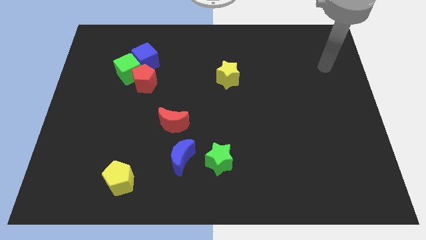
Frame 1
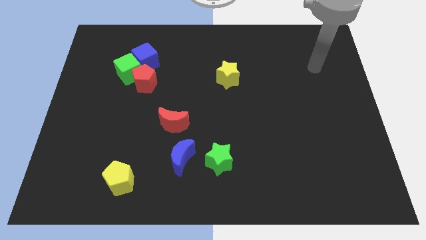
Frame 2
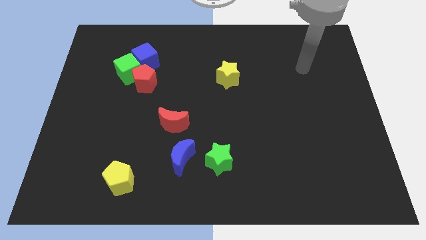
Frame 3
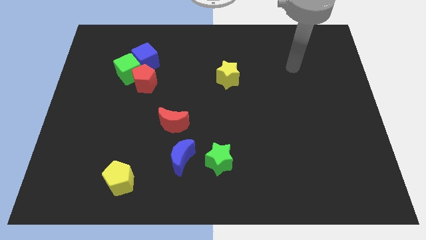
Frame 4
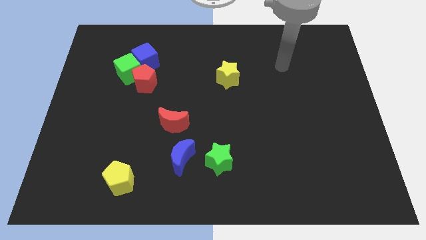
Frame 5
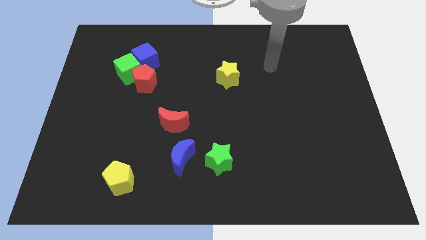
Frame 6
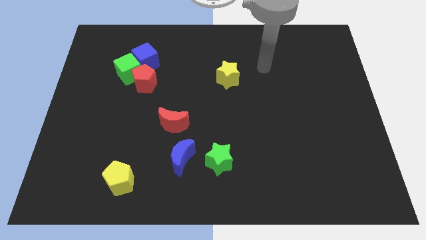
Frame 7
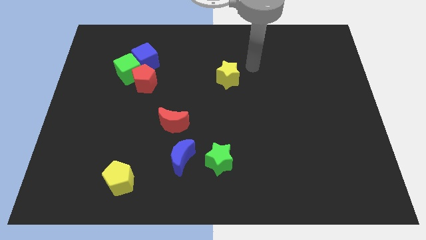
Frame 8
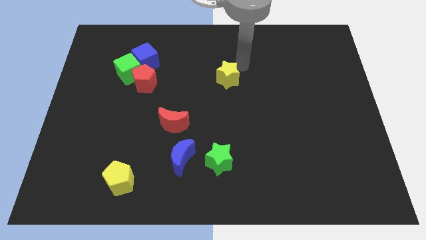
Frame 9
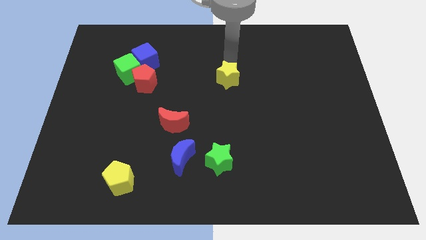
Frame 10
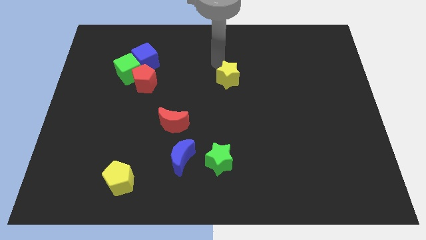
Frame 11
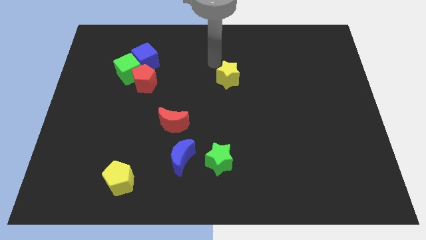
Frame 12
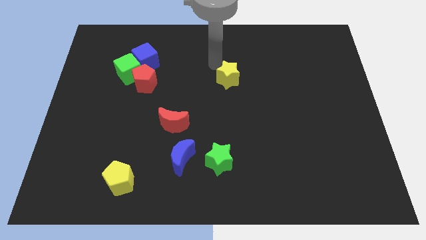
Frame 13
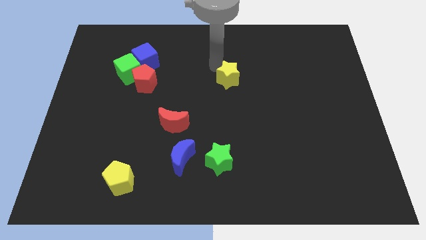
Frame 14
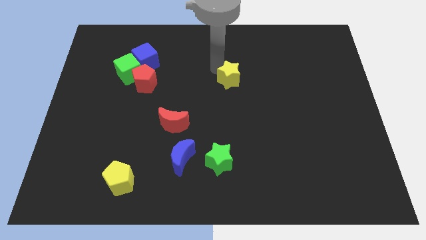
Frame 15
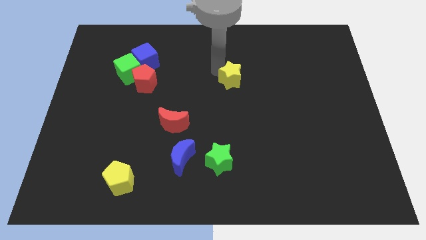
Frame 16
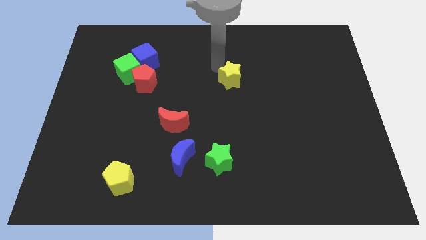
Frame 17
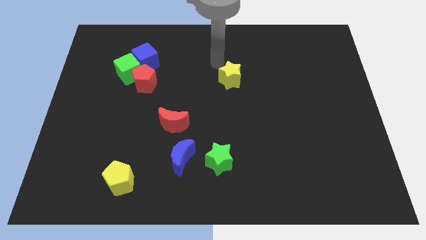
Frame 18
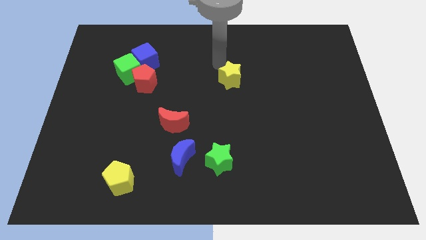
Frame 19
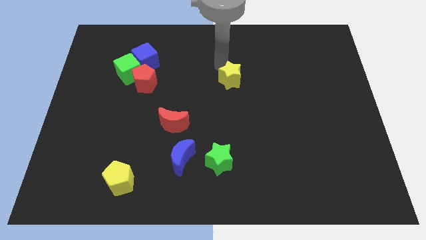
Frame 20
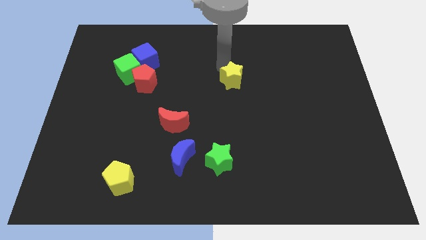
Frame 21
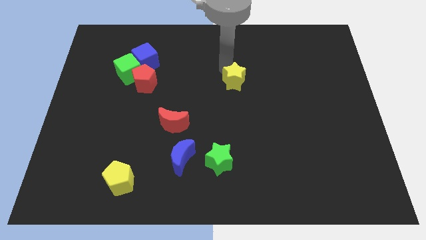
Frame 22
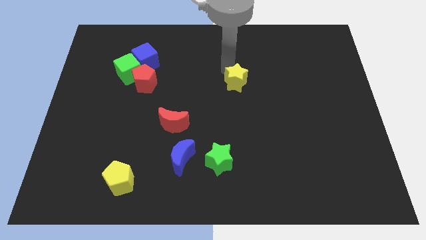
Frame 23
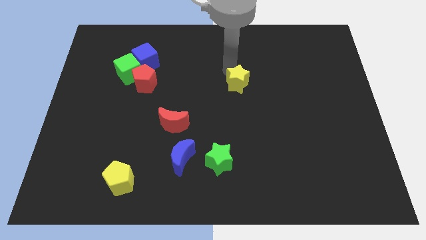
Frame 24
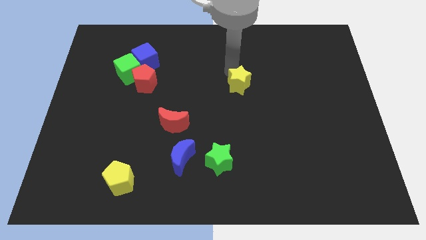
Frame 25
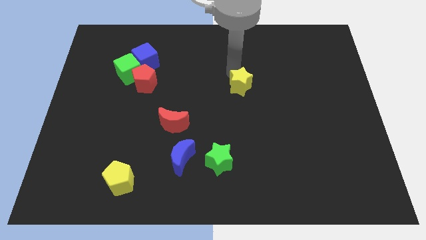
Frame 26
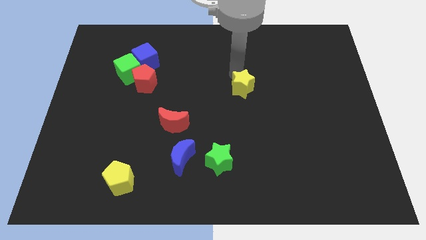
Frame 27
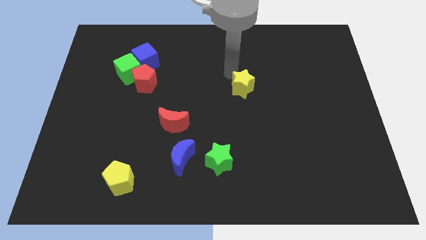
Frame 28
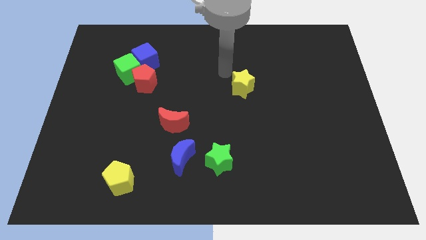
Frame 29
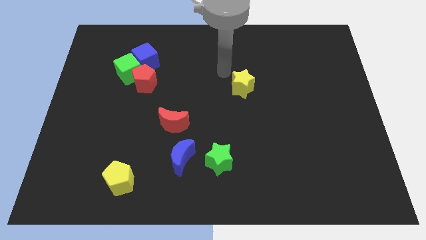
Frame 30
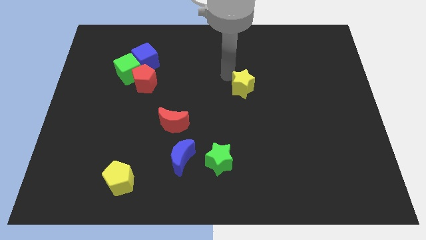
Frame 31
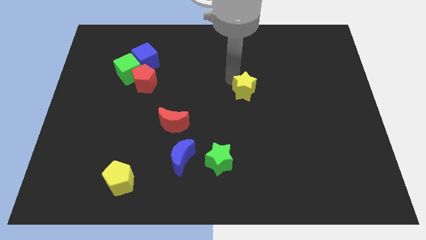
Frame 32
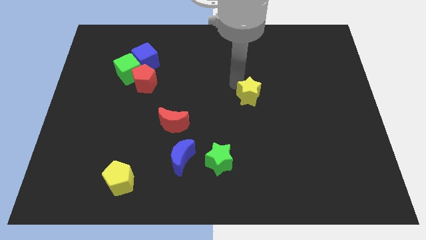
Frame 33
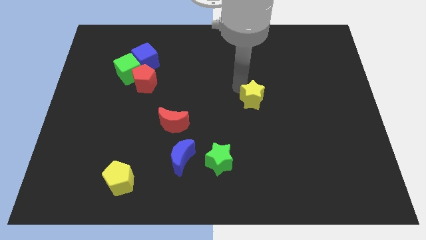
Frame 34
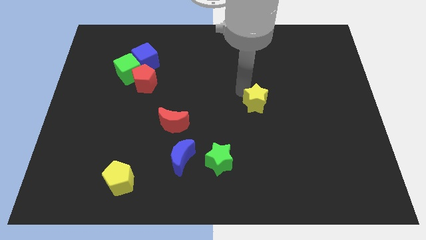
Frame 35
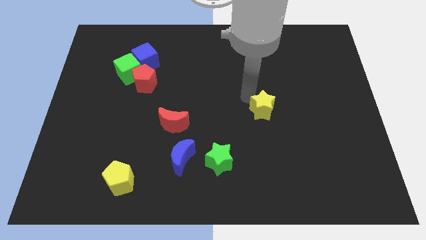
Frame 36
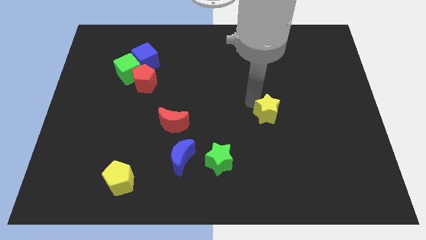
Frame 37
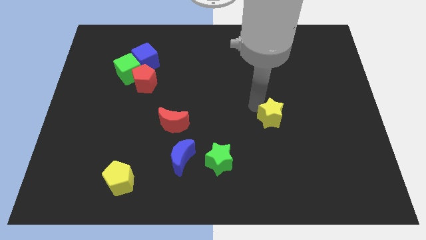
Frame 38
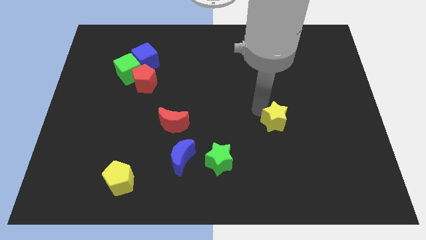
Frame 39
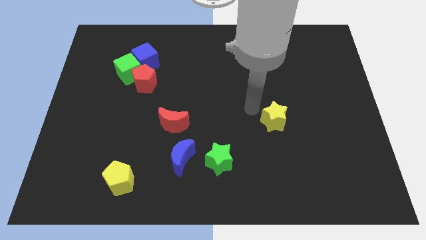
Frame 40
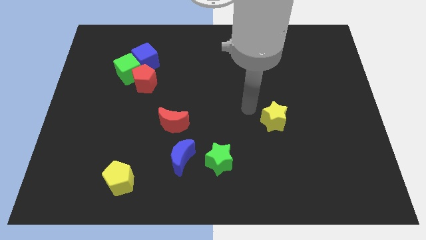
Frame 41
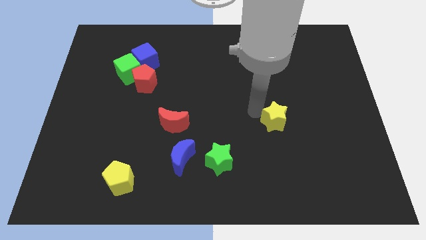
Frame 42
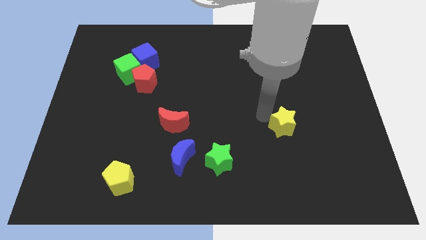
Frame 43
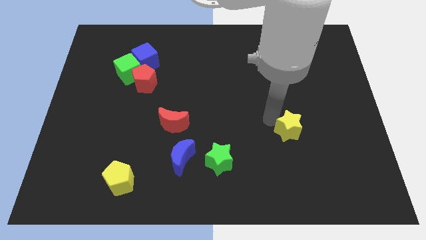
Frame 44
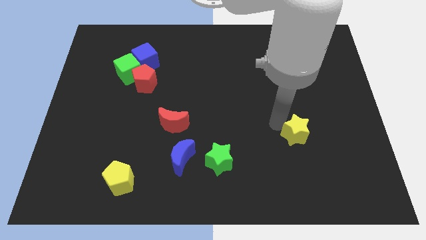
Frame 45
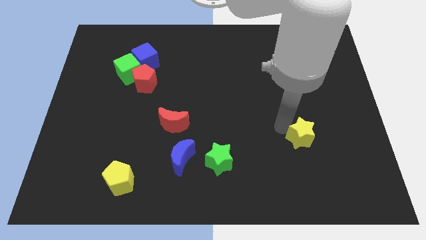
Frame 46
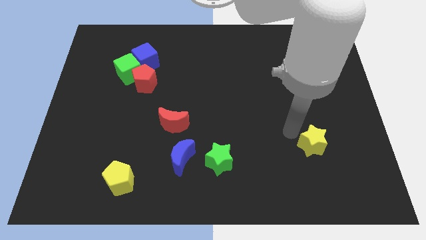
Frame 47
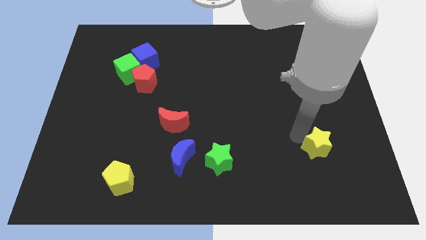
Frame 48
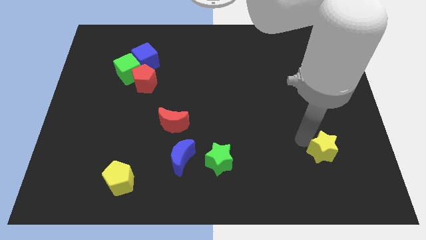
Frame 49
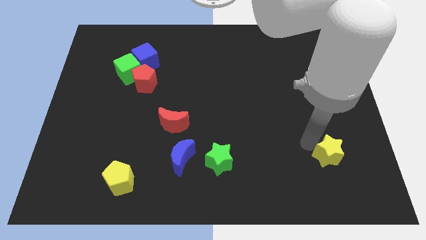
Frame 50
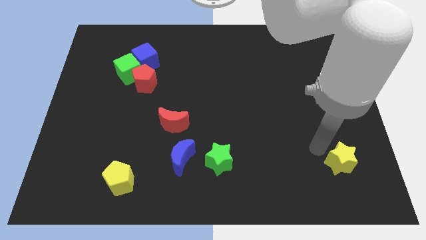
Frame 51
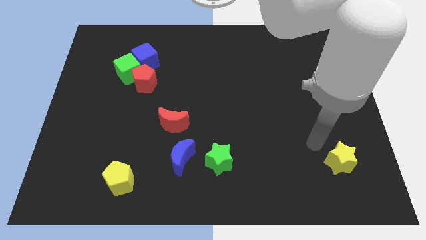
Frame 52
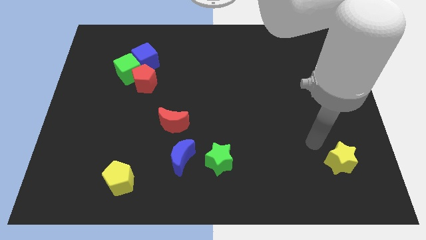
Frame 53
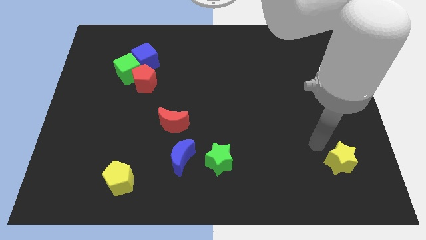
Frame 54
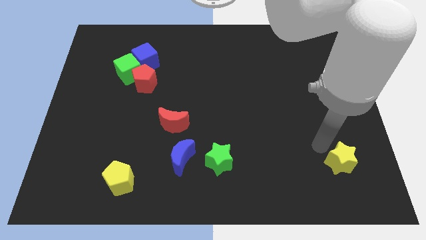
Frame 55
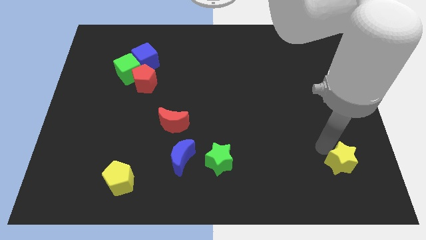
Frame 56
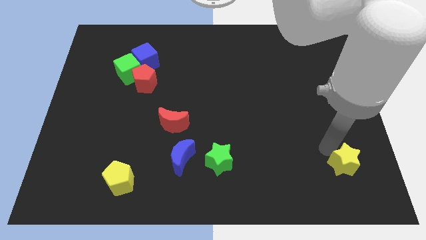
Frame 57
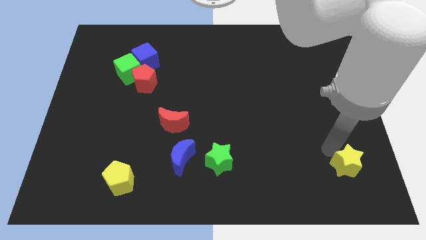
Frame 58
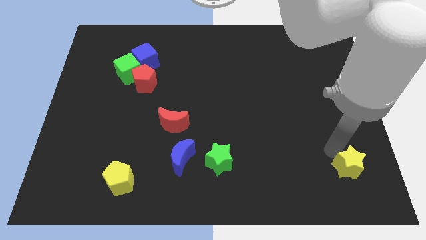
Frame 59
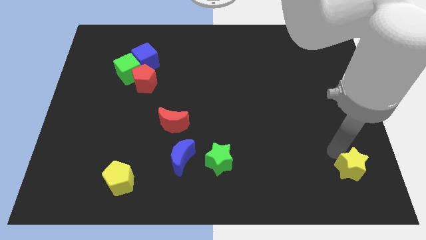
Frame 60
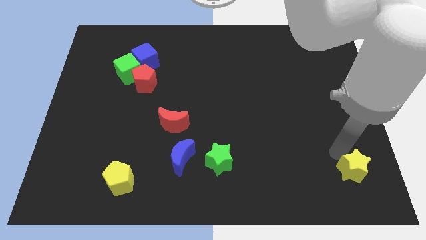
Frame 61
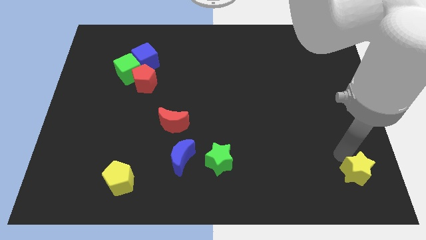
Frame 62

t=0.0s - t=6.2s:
put the yellow star to the bottom right of the board
